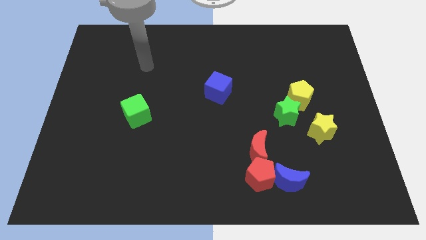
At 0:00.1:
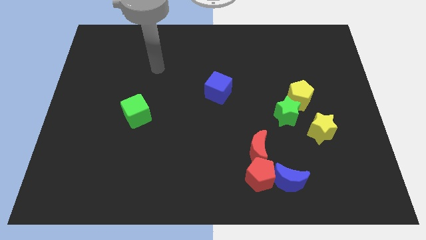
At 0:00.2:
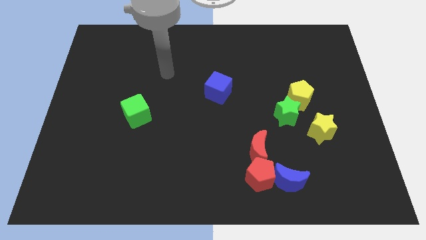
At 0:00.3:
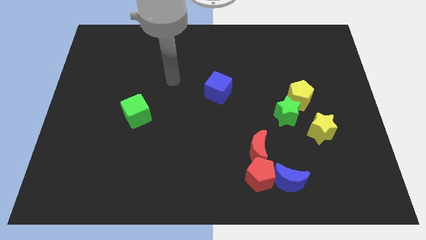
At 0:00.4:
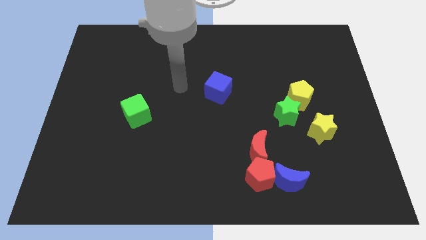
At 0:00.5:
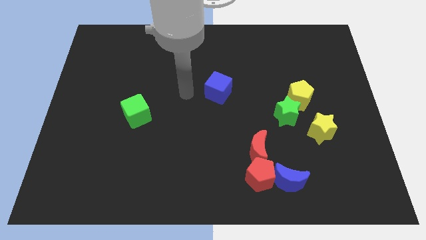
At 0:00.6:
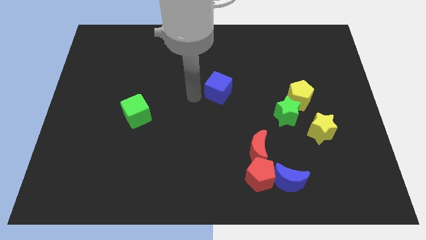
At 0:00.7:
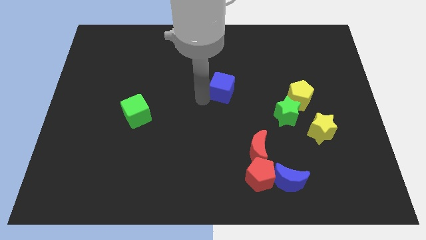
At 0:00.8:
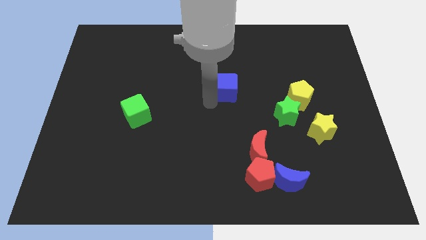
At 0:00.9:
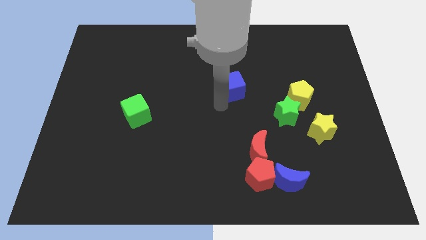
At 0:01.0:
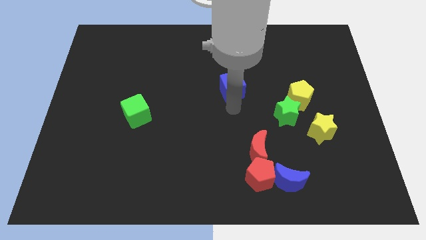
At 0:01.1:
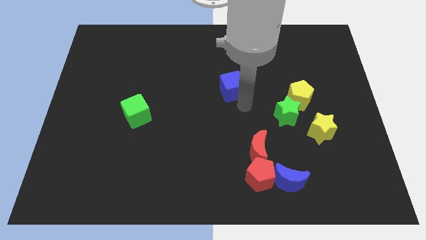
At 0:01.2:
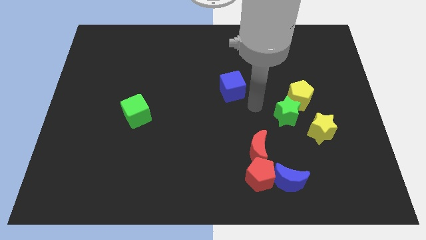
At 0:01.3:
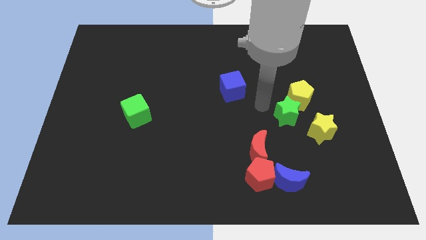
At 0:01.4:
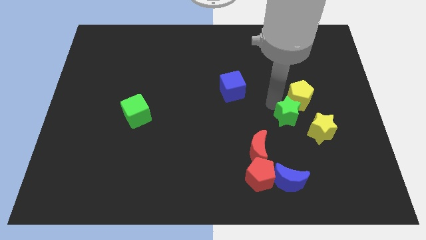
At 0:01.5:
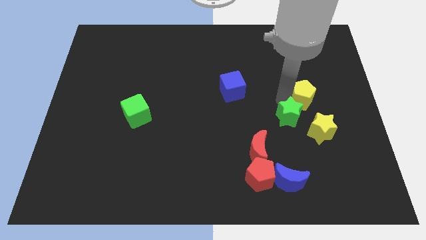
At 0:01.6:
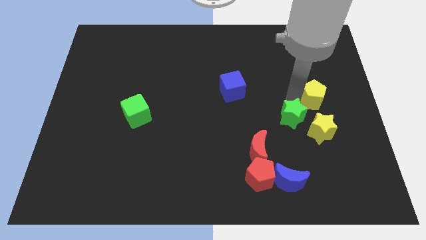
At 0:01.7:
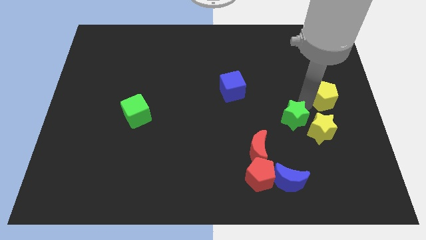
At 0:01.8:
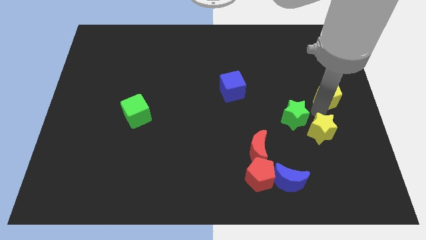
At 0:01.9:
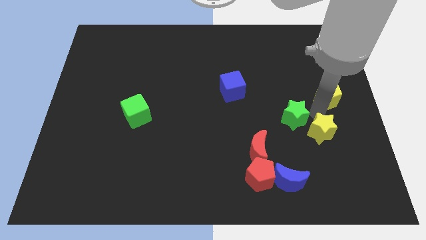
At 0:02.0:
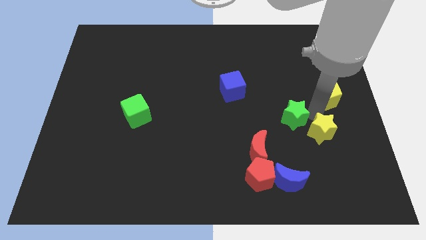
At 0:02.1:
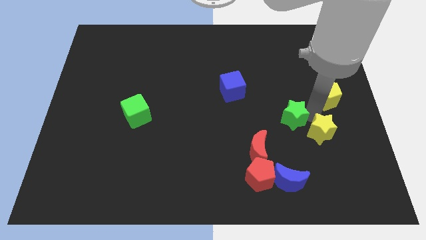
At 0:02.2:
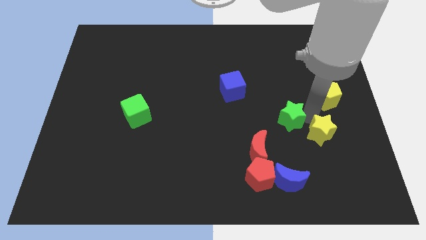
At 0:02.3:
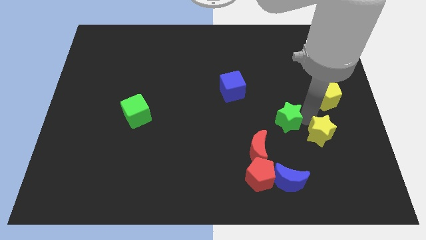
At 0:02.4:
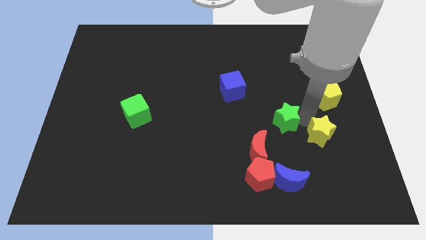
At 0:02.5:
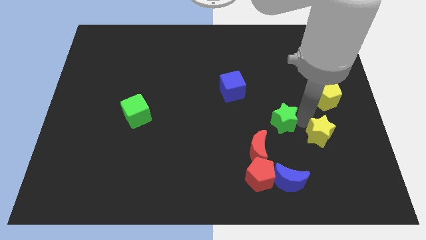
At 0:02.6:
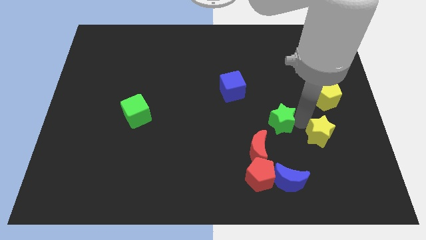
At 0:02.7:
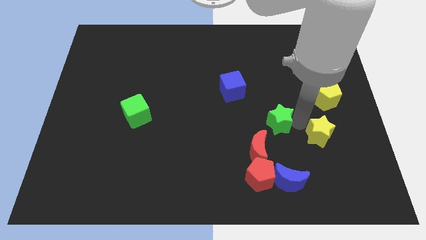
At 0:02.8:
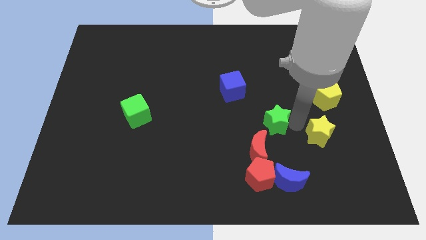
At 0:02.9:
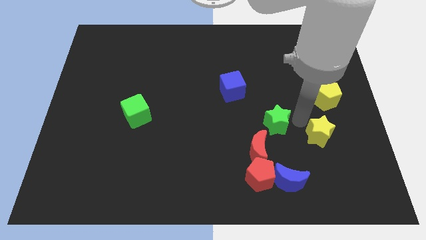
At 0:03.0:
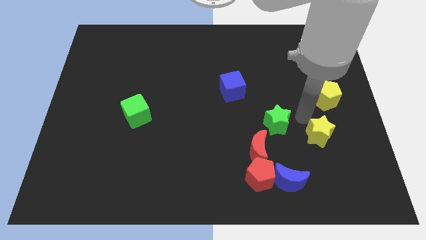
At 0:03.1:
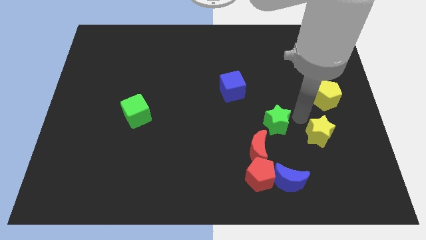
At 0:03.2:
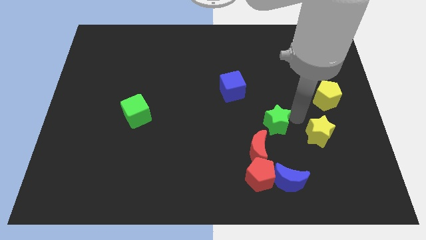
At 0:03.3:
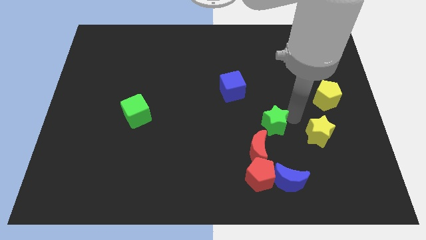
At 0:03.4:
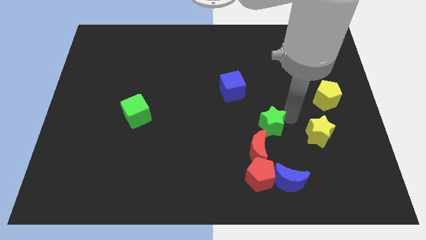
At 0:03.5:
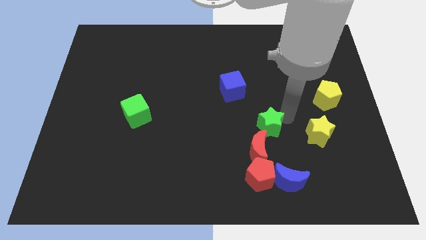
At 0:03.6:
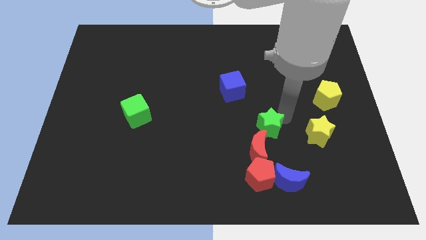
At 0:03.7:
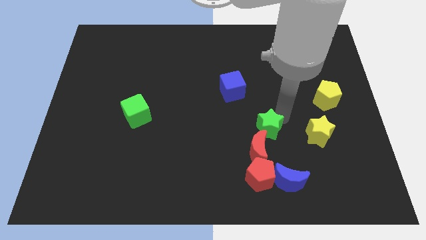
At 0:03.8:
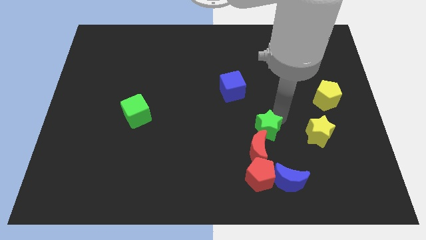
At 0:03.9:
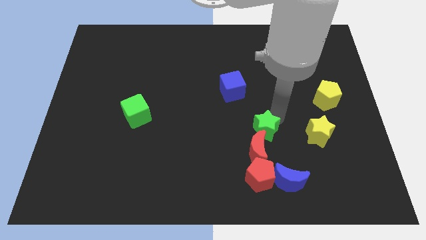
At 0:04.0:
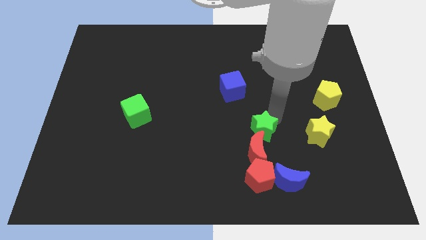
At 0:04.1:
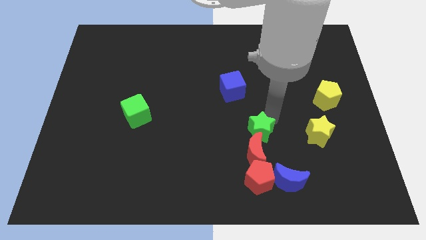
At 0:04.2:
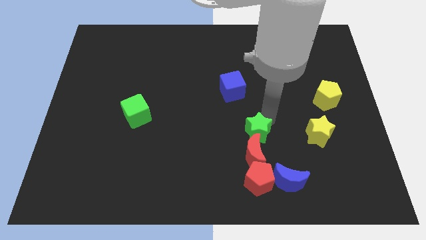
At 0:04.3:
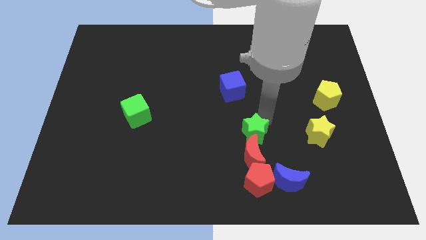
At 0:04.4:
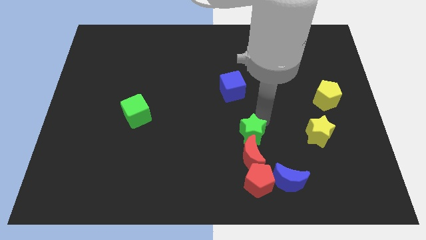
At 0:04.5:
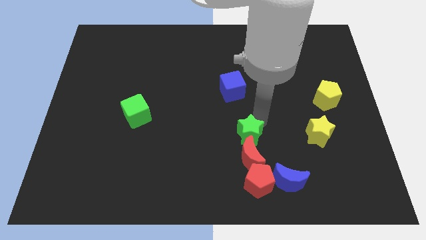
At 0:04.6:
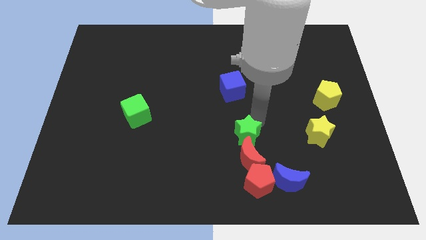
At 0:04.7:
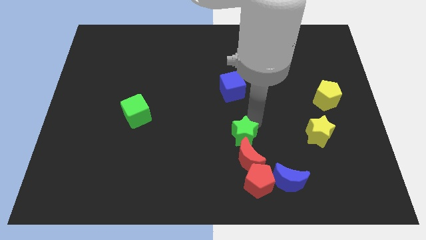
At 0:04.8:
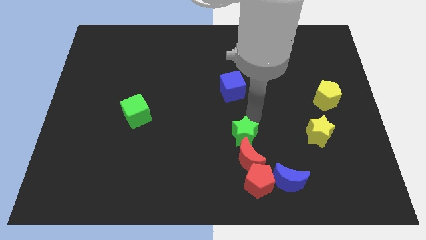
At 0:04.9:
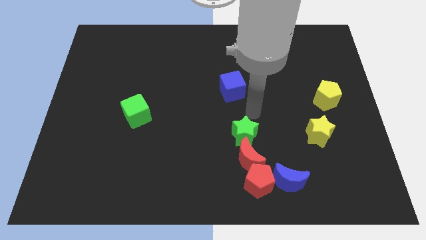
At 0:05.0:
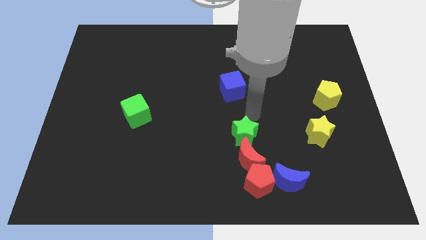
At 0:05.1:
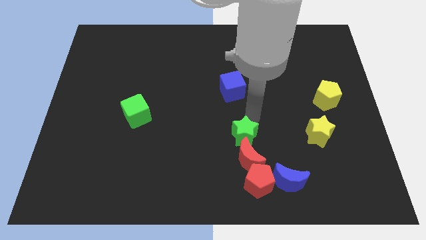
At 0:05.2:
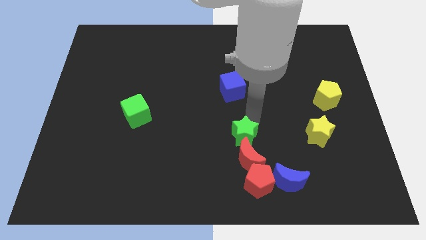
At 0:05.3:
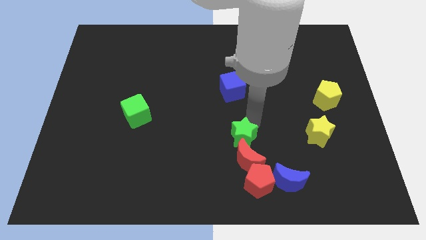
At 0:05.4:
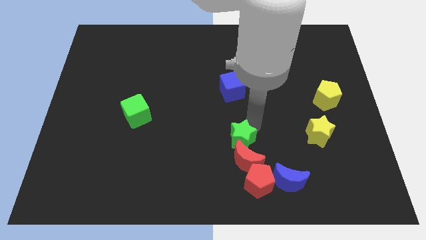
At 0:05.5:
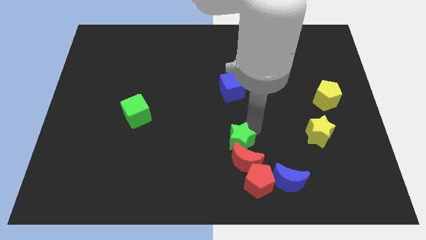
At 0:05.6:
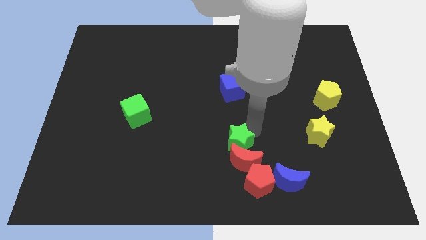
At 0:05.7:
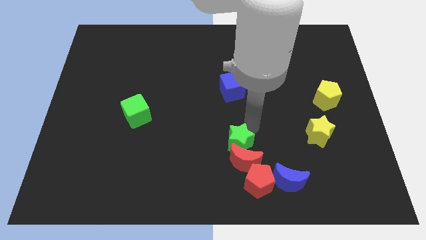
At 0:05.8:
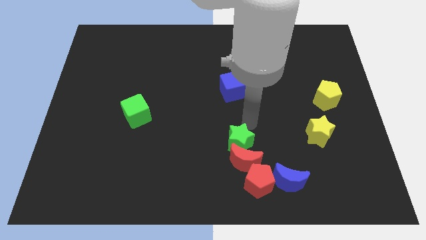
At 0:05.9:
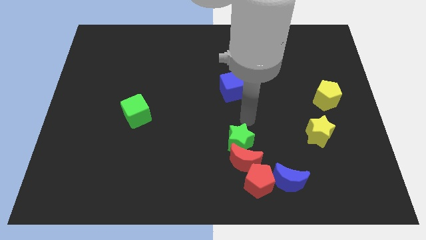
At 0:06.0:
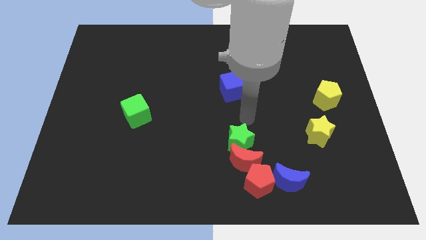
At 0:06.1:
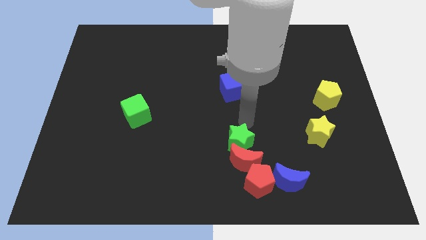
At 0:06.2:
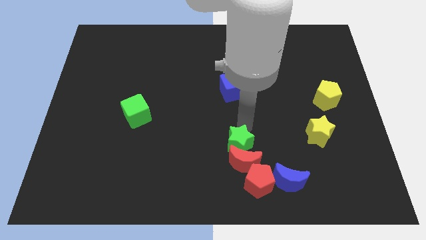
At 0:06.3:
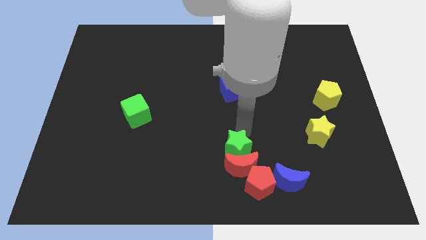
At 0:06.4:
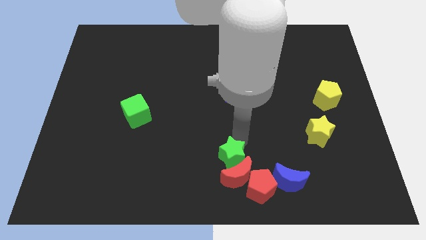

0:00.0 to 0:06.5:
put the green star to the bottom side

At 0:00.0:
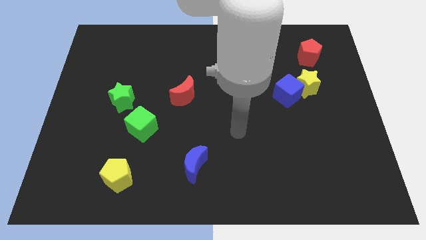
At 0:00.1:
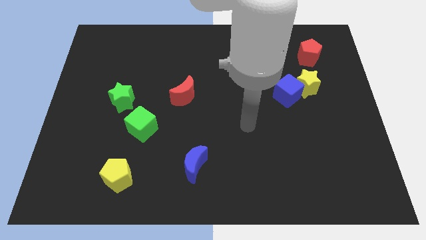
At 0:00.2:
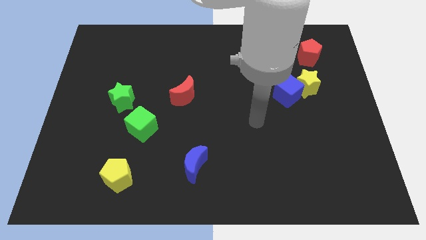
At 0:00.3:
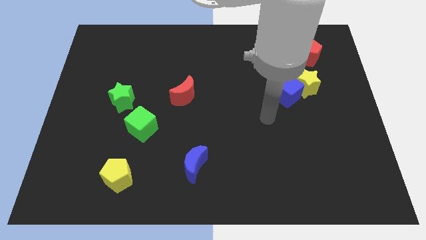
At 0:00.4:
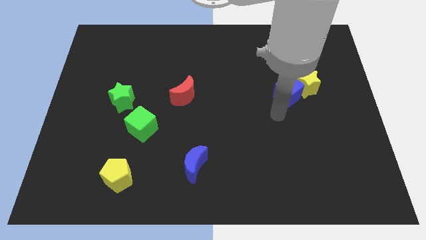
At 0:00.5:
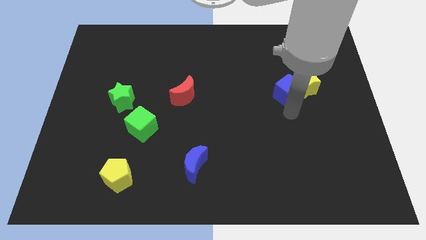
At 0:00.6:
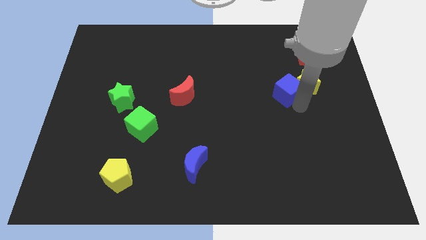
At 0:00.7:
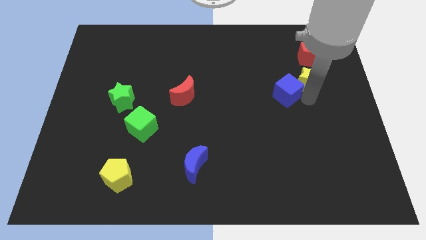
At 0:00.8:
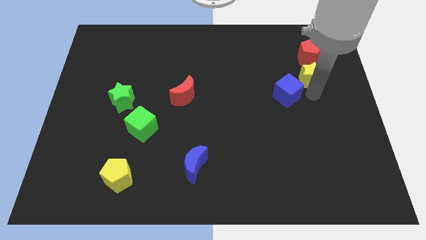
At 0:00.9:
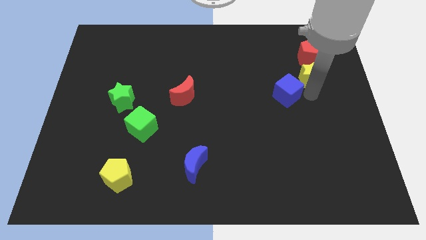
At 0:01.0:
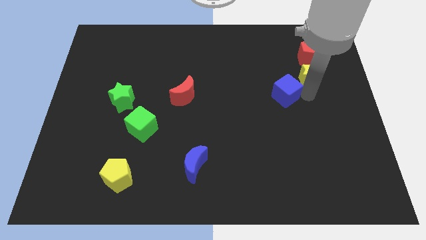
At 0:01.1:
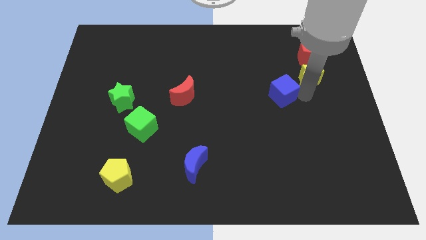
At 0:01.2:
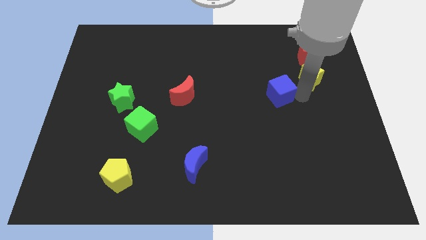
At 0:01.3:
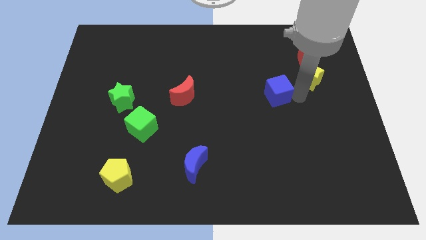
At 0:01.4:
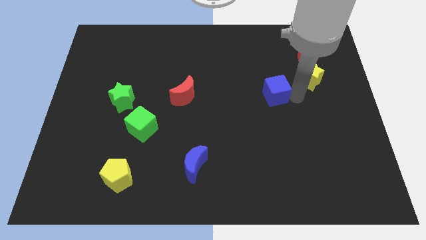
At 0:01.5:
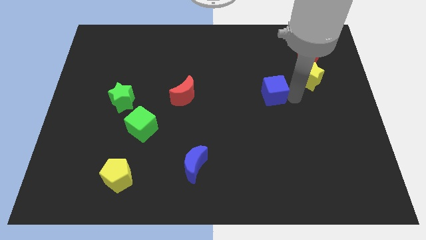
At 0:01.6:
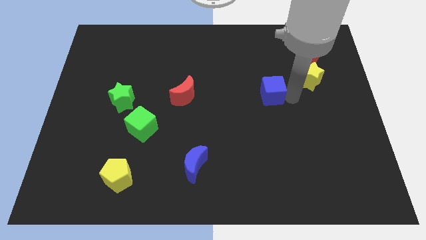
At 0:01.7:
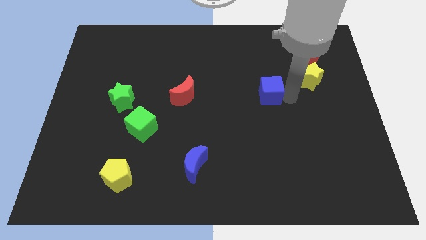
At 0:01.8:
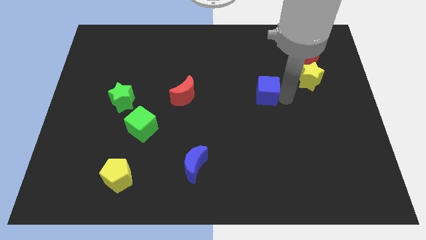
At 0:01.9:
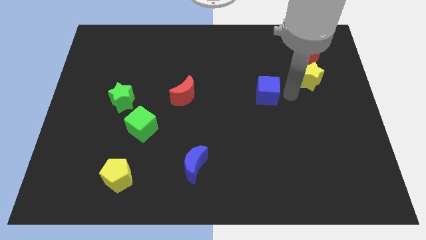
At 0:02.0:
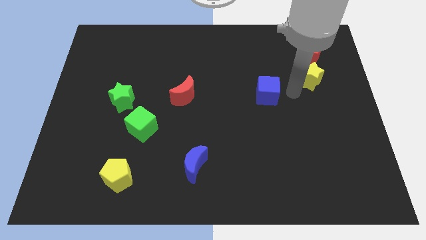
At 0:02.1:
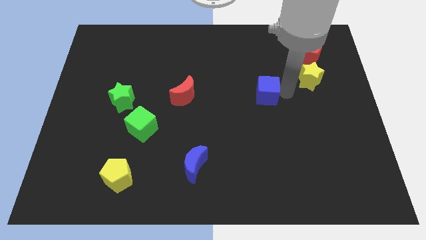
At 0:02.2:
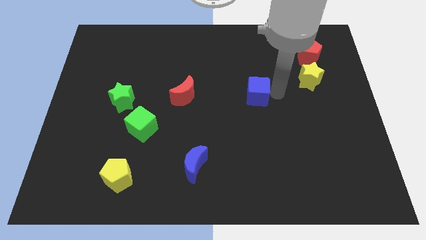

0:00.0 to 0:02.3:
push the blue cube to the middle of the board
